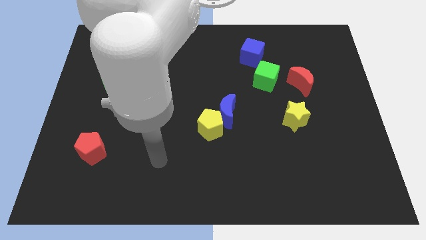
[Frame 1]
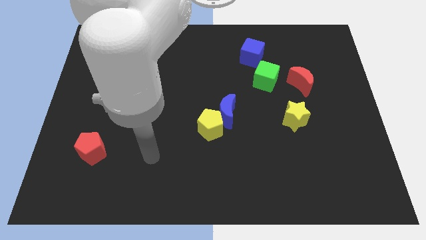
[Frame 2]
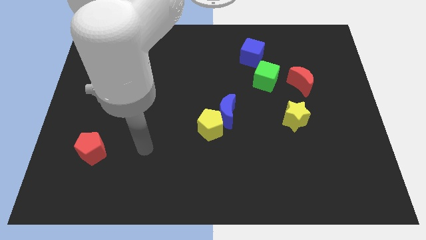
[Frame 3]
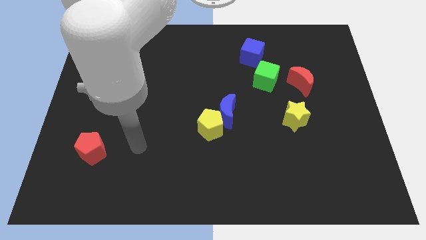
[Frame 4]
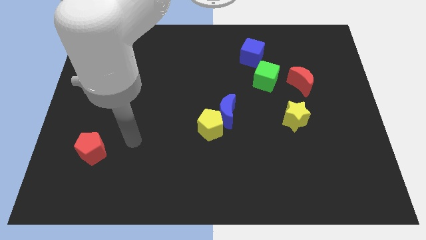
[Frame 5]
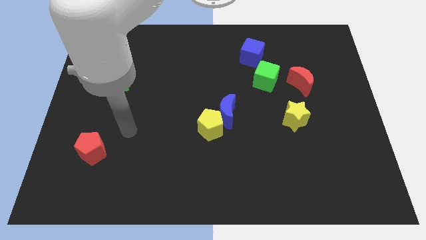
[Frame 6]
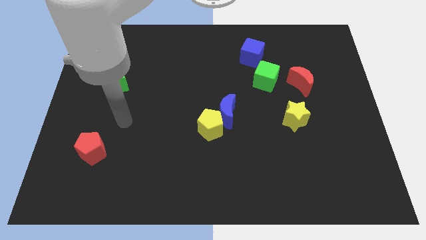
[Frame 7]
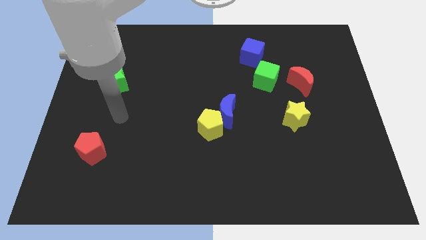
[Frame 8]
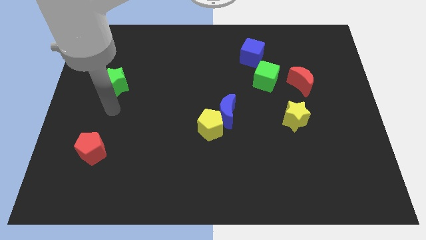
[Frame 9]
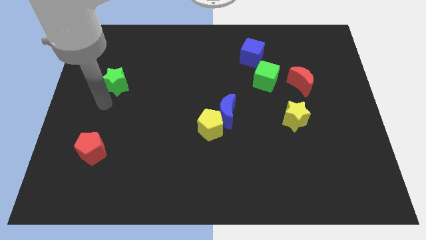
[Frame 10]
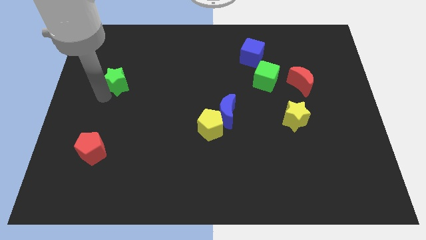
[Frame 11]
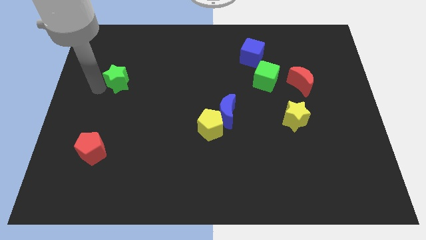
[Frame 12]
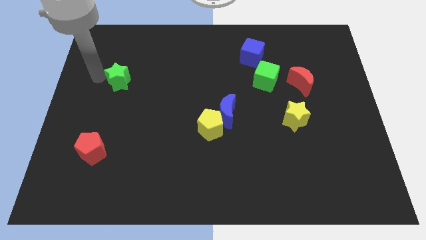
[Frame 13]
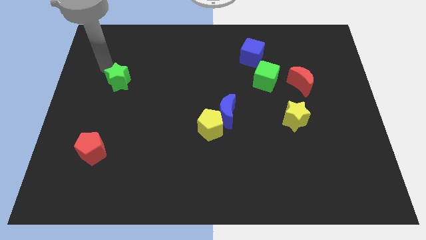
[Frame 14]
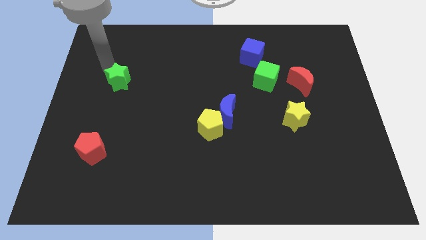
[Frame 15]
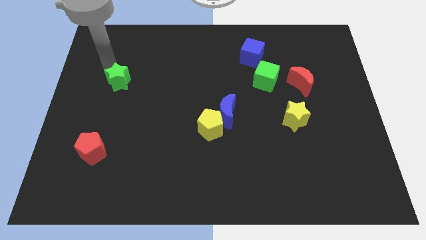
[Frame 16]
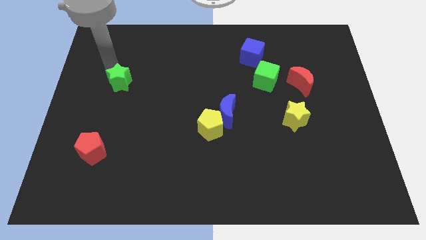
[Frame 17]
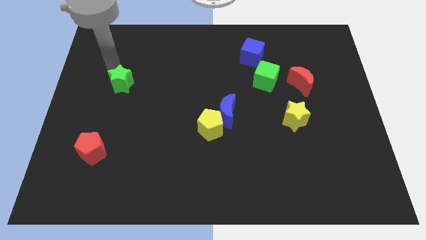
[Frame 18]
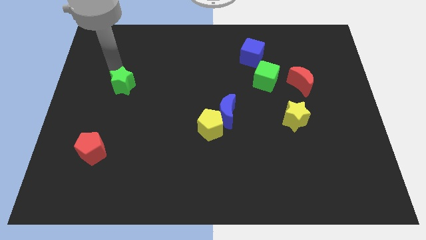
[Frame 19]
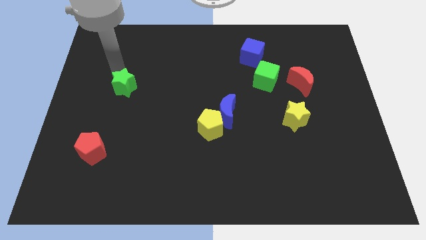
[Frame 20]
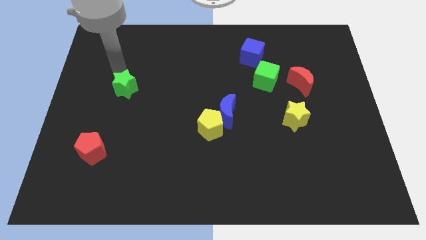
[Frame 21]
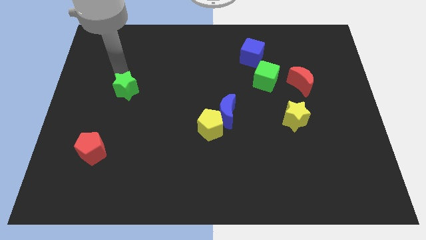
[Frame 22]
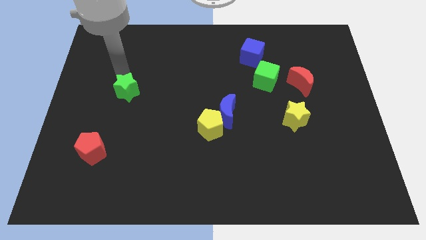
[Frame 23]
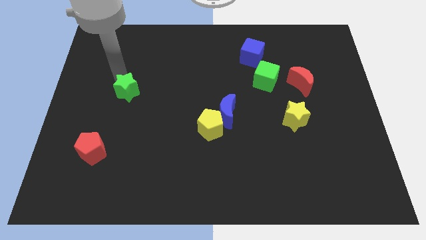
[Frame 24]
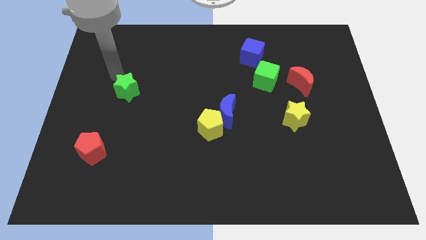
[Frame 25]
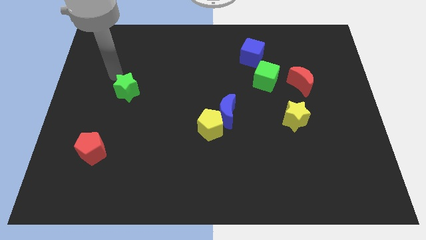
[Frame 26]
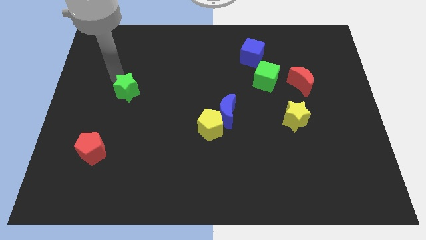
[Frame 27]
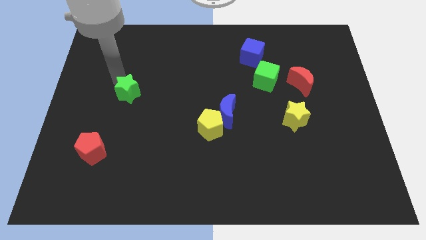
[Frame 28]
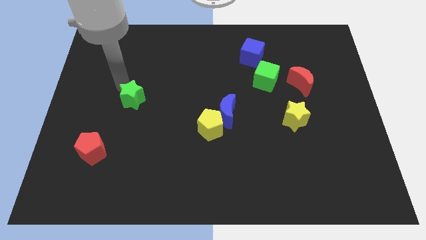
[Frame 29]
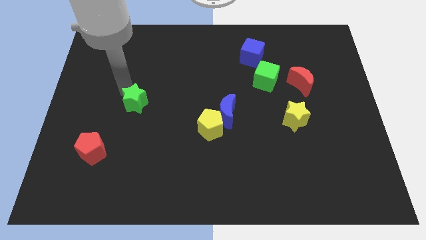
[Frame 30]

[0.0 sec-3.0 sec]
slightly slide the green star down and to the right

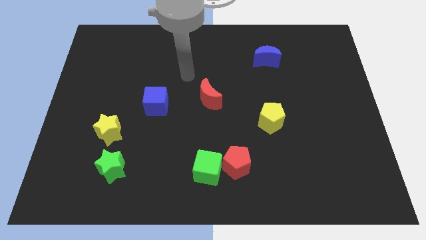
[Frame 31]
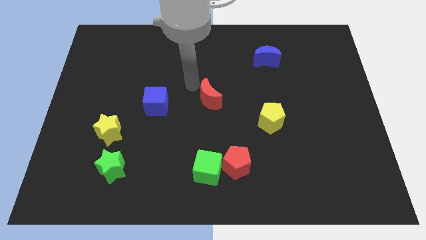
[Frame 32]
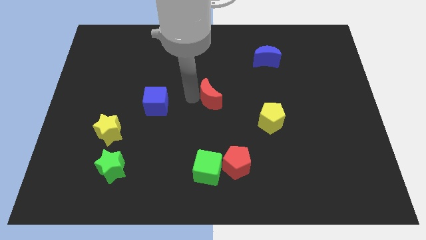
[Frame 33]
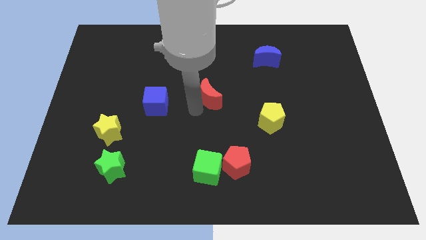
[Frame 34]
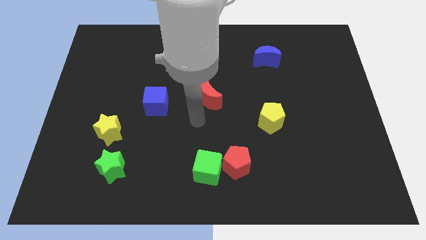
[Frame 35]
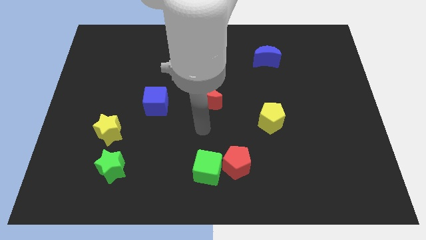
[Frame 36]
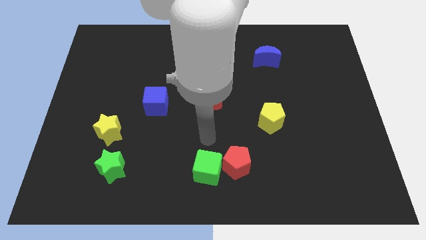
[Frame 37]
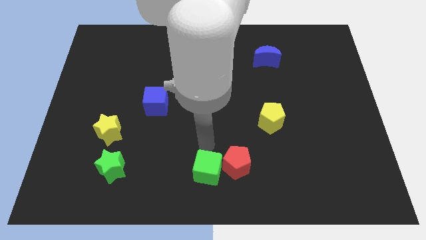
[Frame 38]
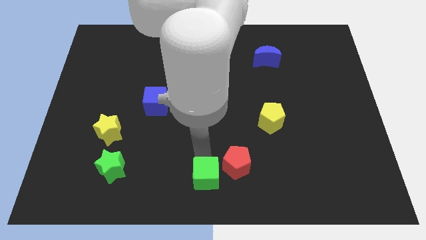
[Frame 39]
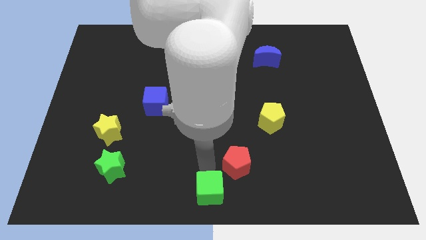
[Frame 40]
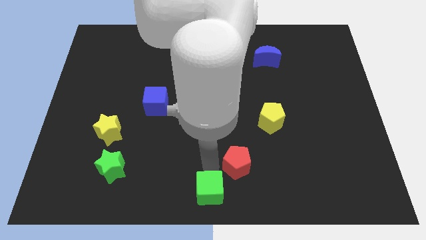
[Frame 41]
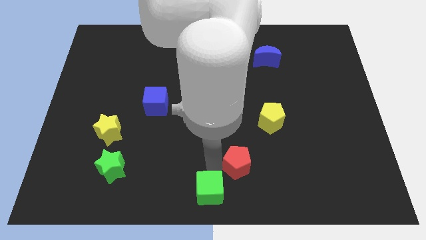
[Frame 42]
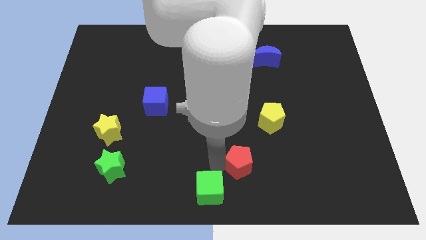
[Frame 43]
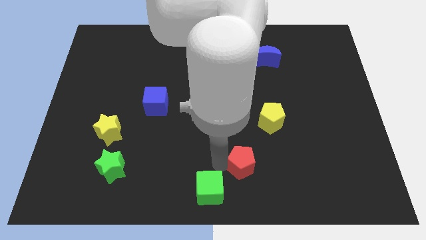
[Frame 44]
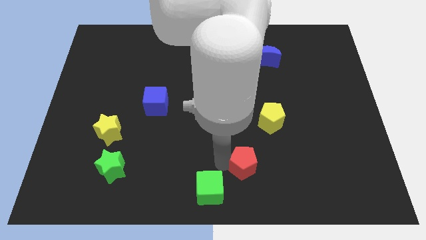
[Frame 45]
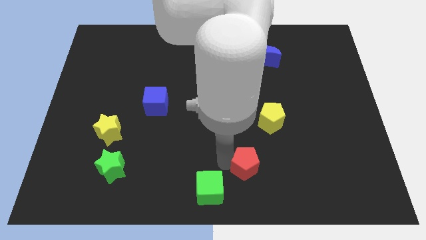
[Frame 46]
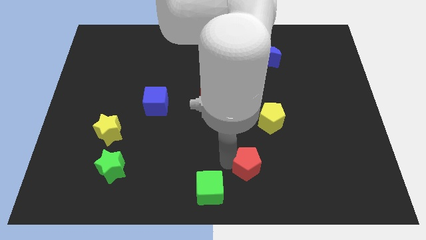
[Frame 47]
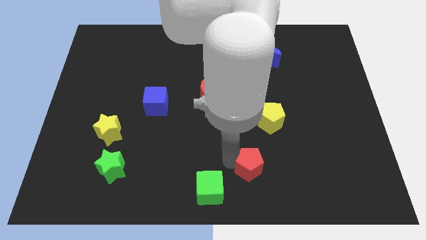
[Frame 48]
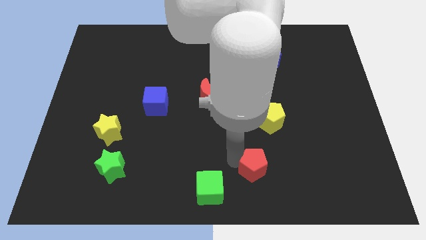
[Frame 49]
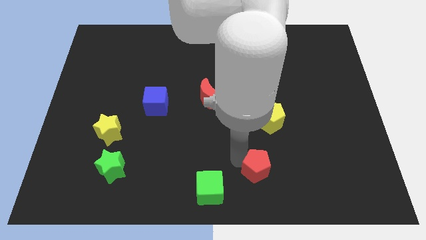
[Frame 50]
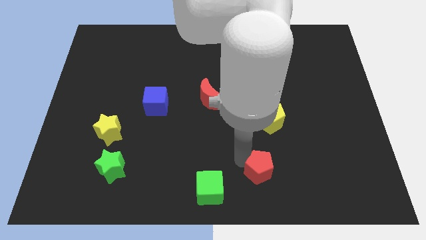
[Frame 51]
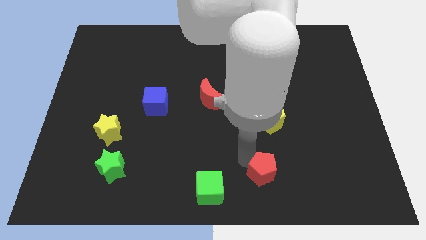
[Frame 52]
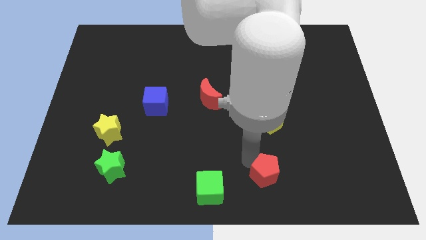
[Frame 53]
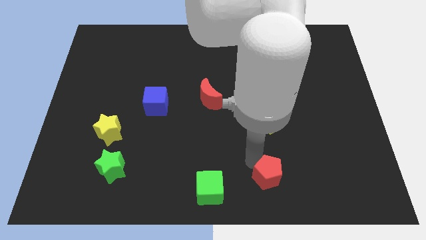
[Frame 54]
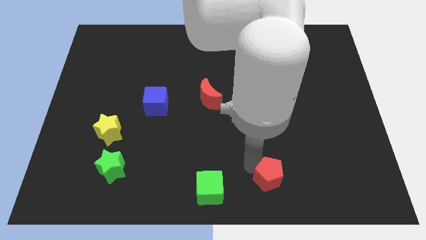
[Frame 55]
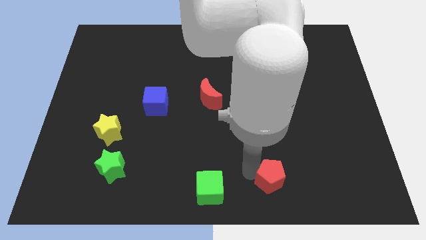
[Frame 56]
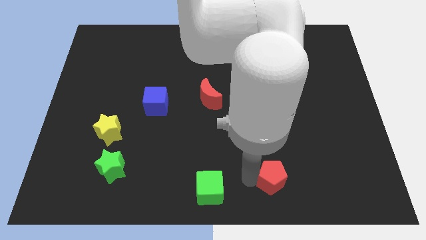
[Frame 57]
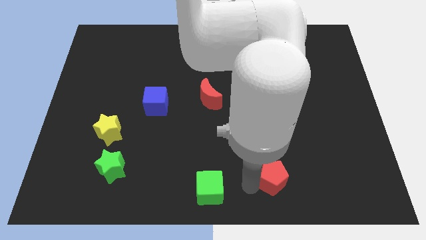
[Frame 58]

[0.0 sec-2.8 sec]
slightly move the red pentagon to the right

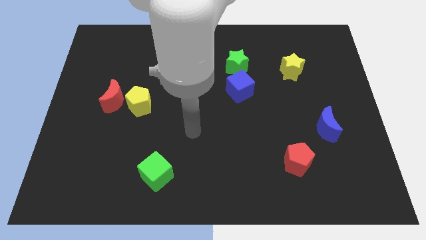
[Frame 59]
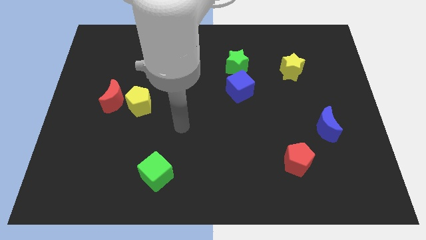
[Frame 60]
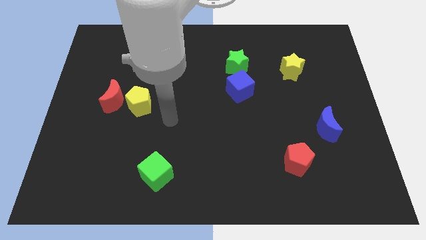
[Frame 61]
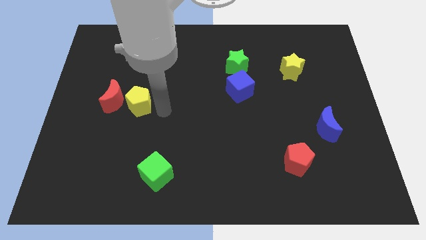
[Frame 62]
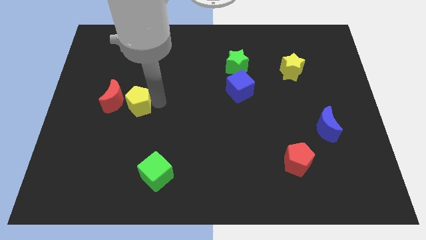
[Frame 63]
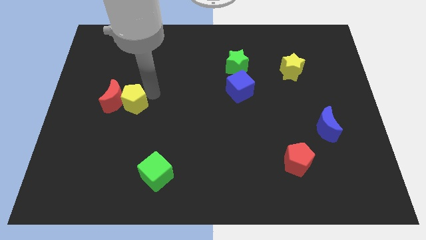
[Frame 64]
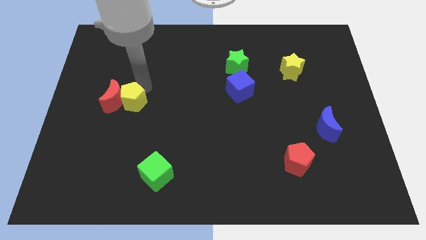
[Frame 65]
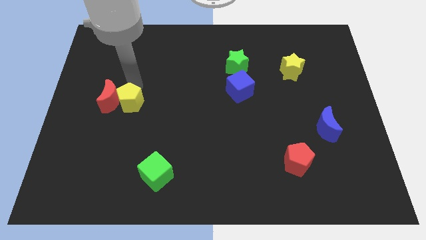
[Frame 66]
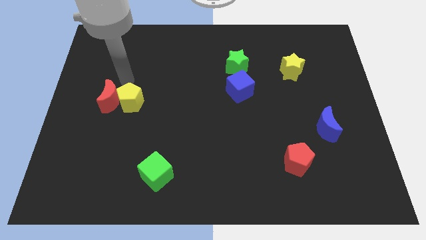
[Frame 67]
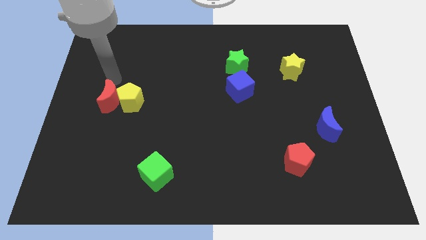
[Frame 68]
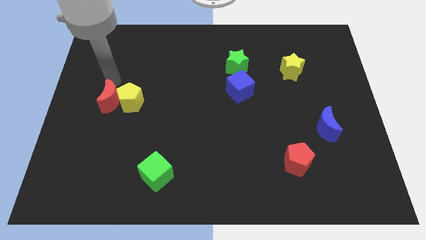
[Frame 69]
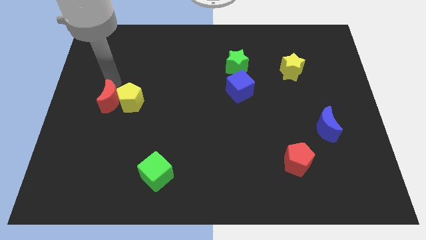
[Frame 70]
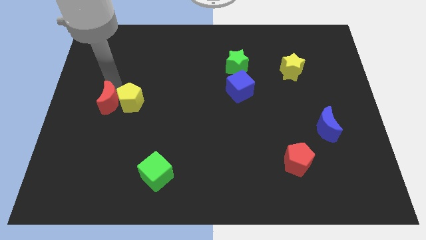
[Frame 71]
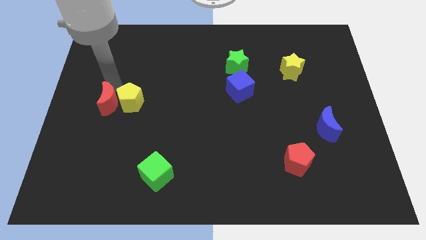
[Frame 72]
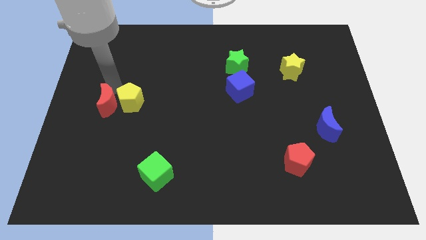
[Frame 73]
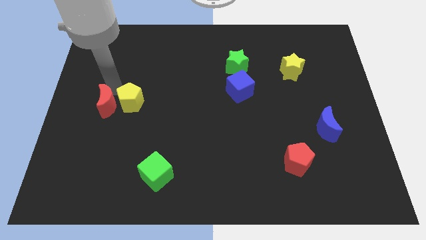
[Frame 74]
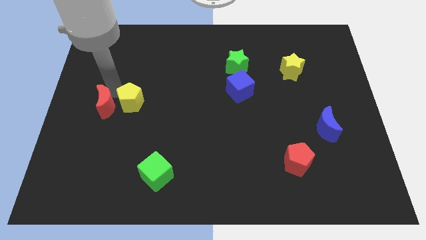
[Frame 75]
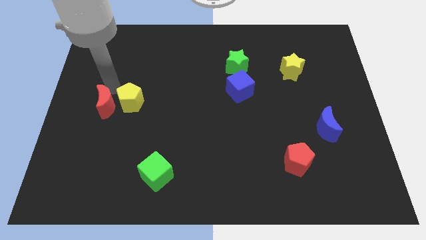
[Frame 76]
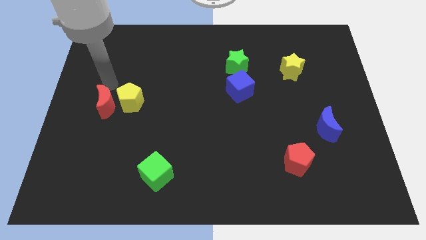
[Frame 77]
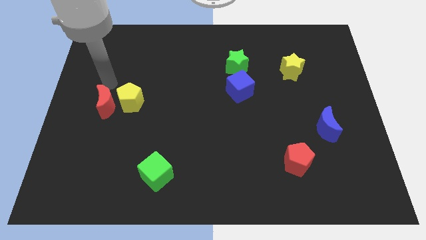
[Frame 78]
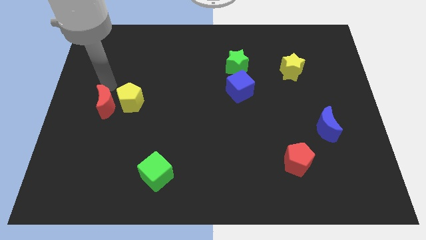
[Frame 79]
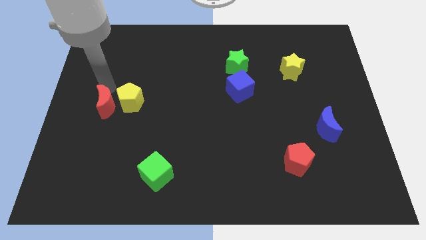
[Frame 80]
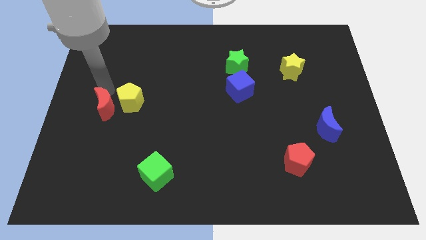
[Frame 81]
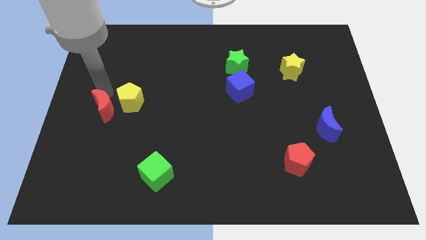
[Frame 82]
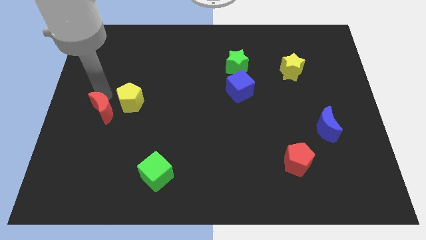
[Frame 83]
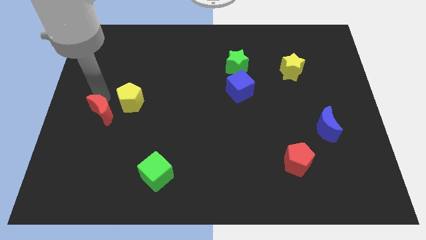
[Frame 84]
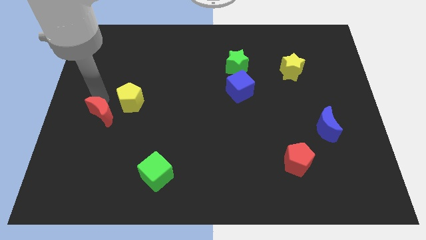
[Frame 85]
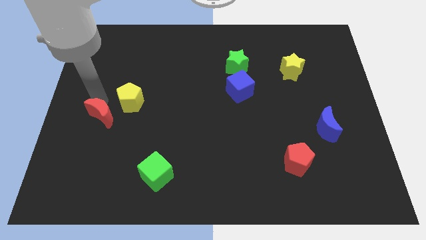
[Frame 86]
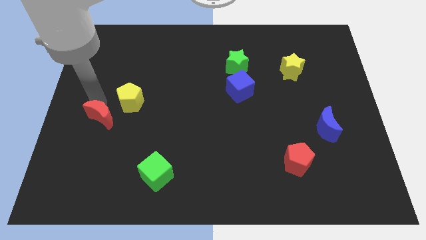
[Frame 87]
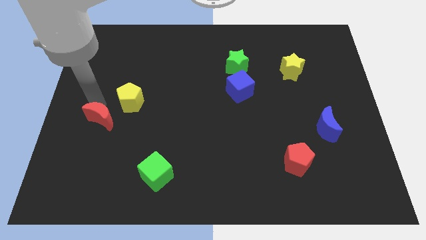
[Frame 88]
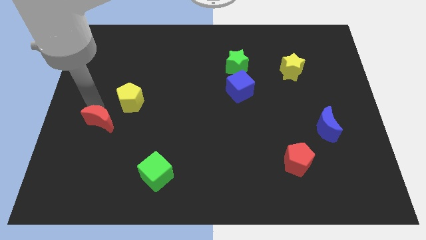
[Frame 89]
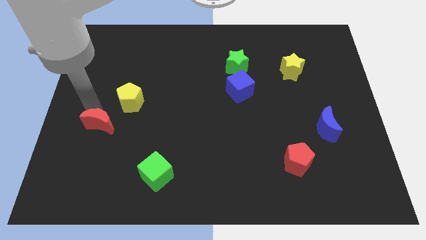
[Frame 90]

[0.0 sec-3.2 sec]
move the red moon downwards slightly
